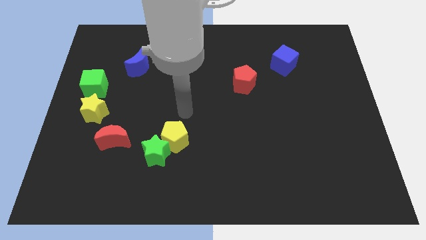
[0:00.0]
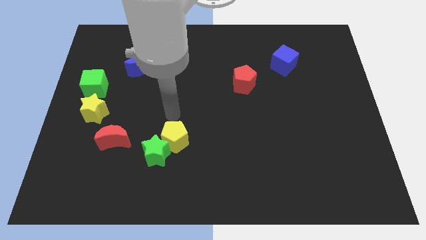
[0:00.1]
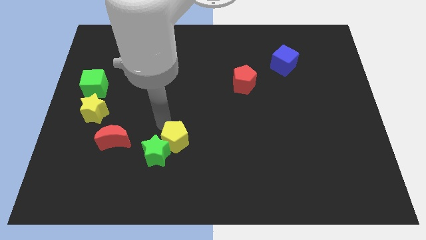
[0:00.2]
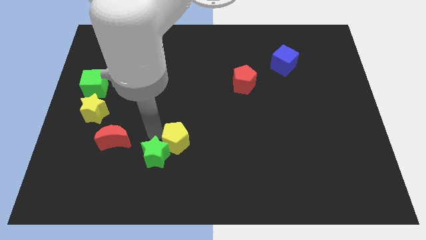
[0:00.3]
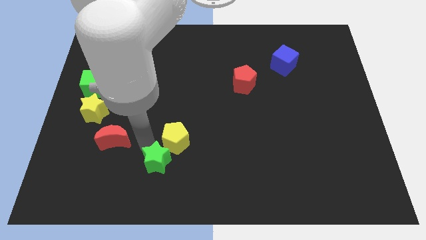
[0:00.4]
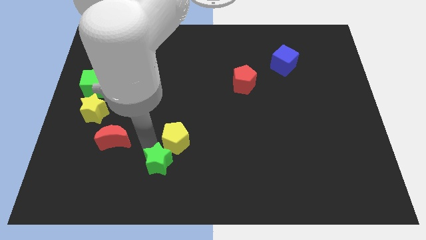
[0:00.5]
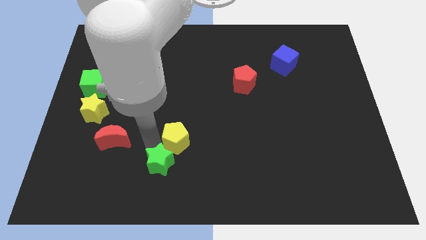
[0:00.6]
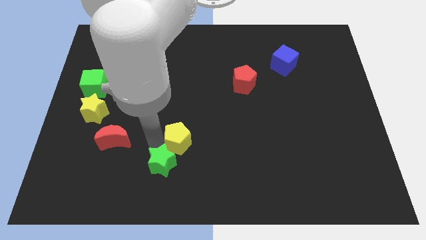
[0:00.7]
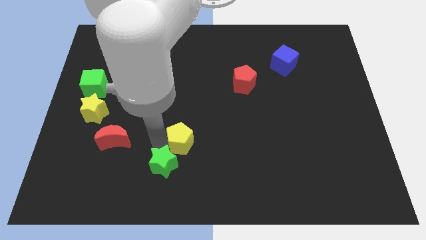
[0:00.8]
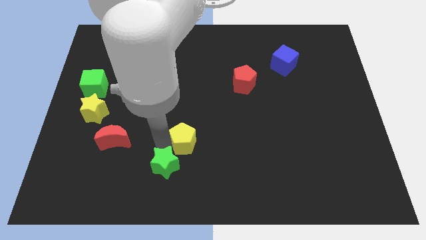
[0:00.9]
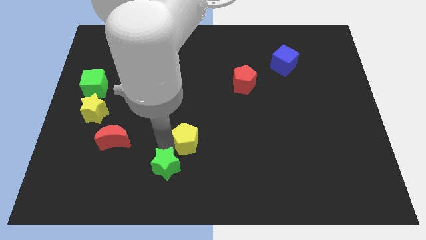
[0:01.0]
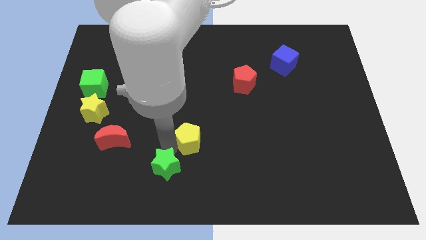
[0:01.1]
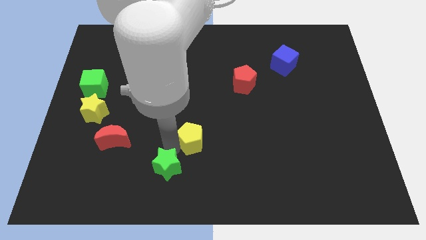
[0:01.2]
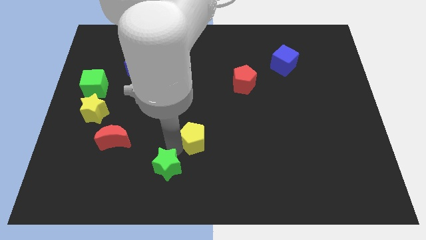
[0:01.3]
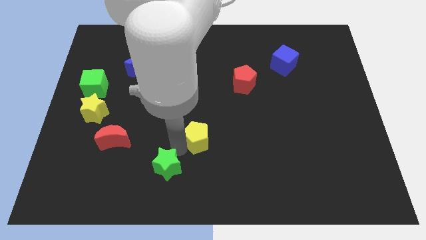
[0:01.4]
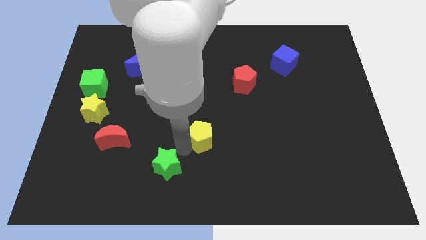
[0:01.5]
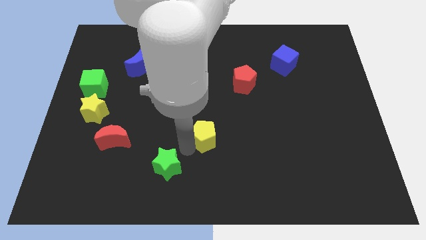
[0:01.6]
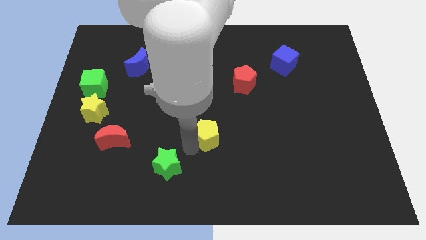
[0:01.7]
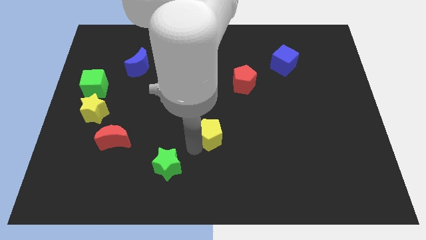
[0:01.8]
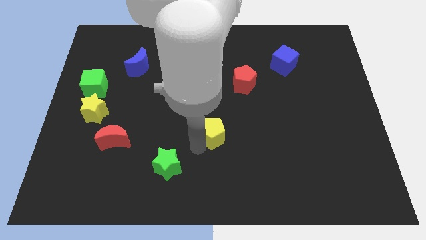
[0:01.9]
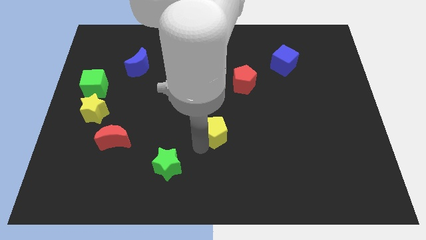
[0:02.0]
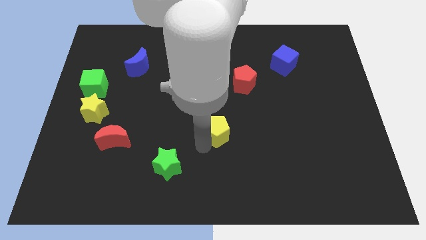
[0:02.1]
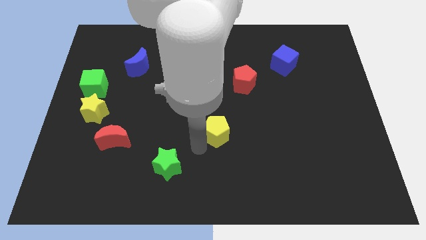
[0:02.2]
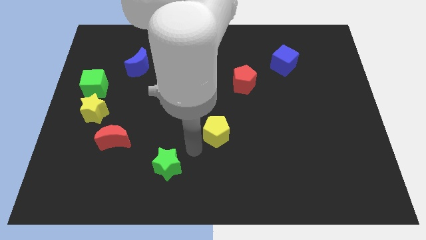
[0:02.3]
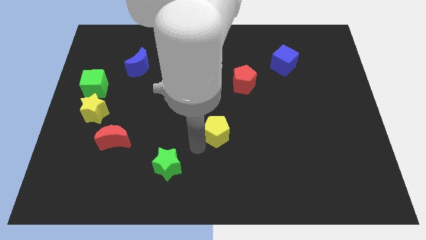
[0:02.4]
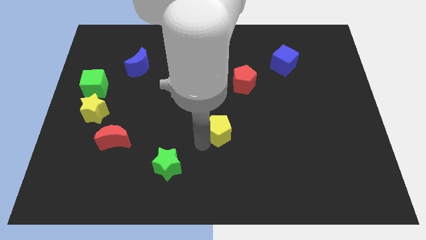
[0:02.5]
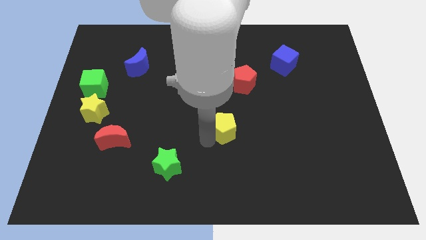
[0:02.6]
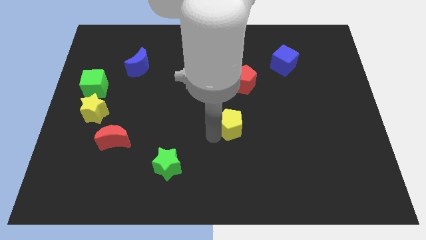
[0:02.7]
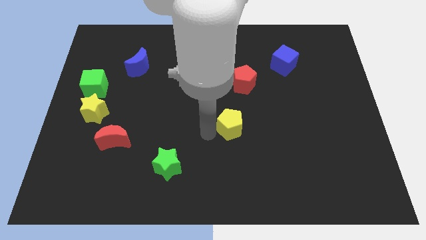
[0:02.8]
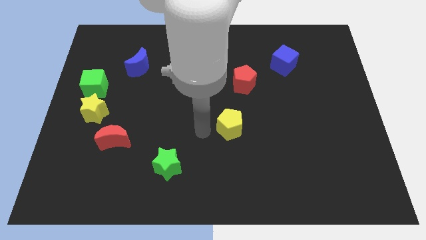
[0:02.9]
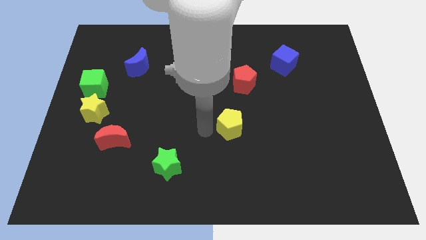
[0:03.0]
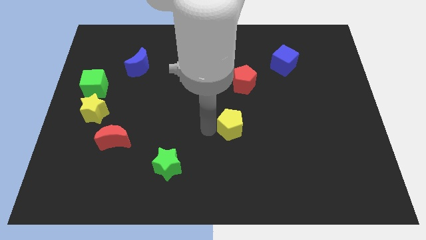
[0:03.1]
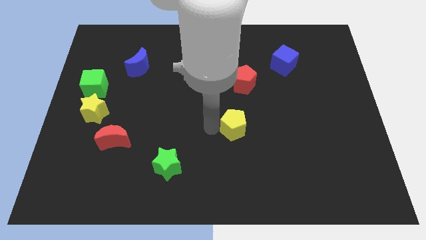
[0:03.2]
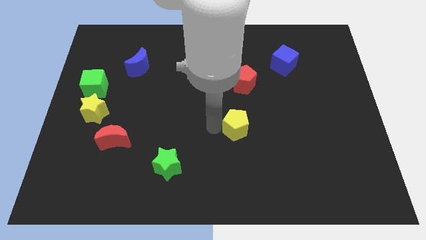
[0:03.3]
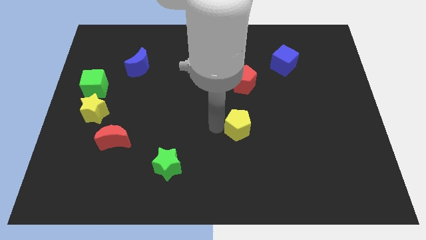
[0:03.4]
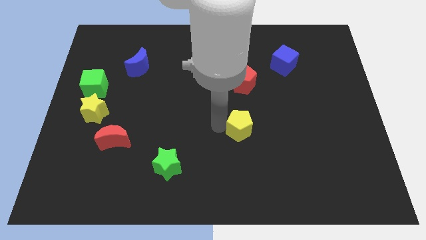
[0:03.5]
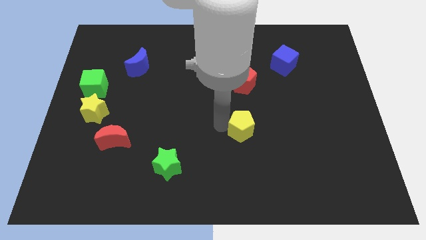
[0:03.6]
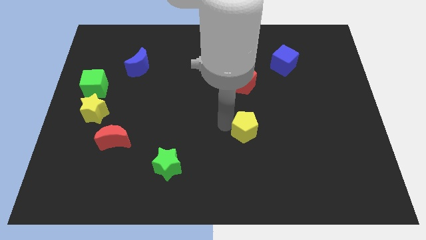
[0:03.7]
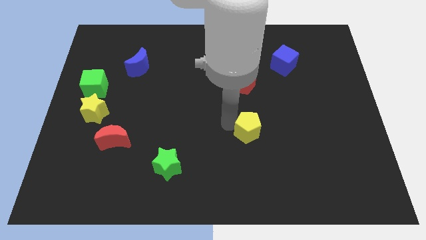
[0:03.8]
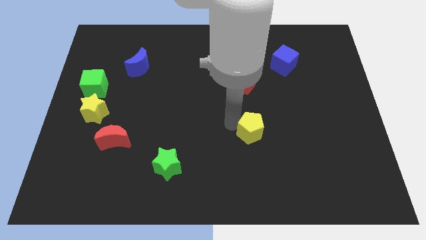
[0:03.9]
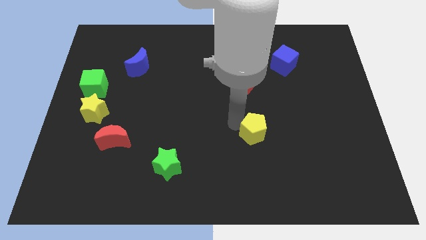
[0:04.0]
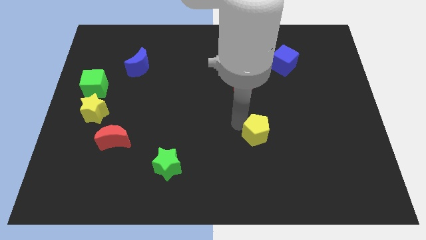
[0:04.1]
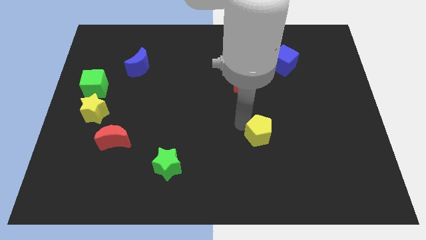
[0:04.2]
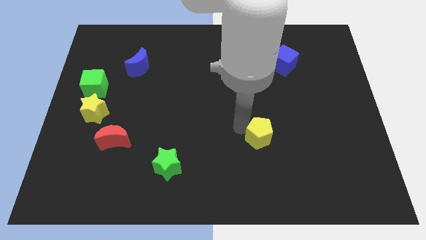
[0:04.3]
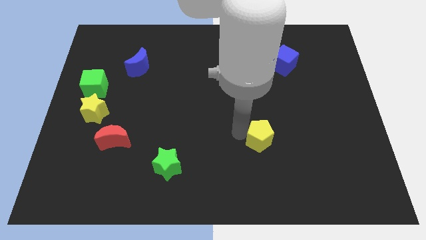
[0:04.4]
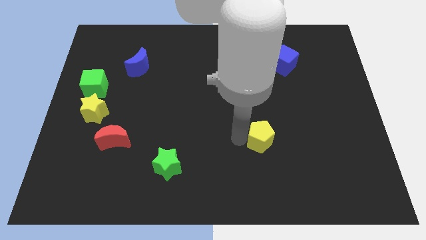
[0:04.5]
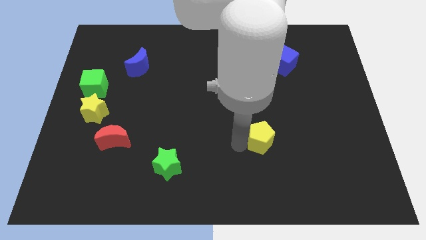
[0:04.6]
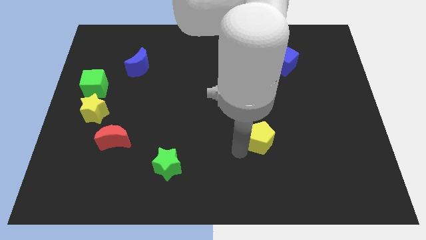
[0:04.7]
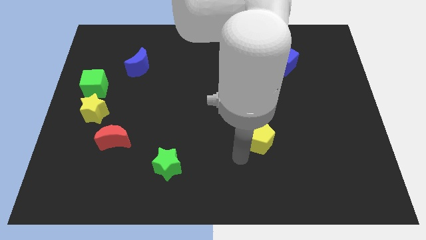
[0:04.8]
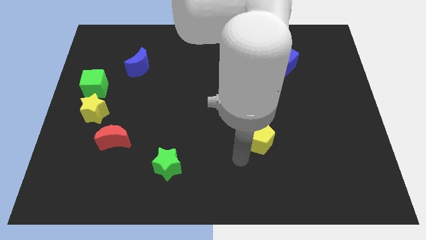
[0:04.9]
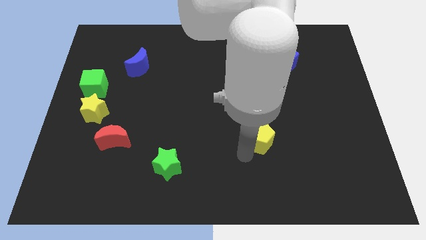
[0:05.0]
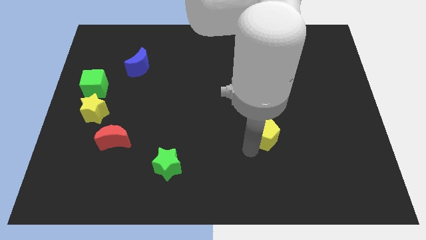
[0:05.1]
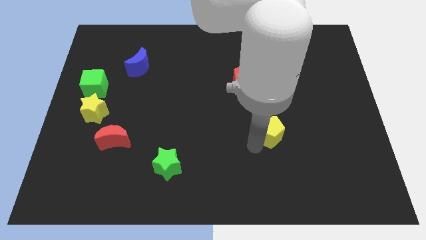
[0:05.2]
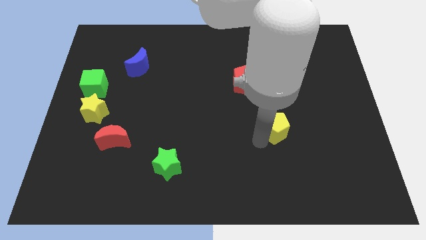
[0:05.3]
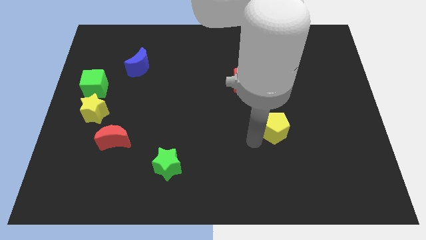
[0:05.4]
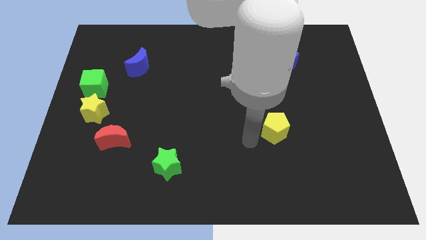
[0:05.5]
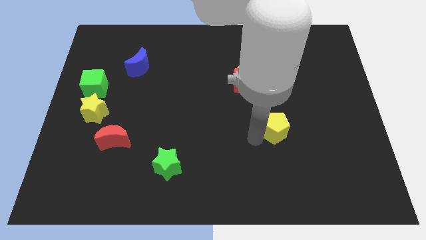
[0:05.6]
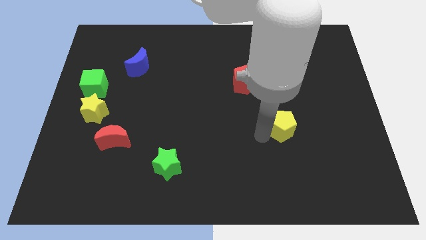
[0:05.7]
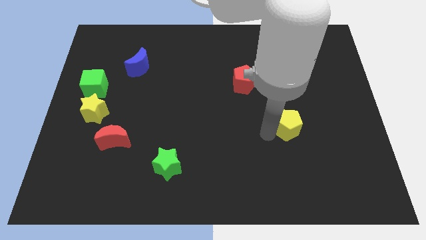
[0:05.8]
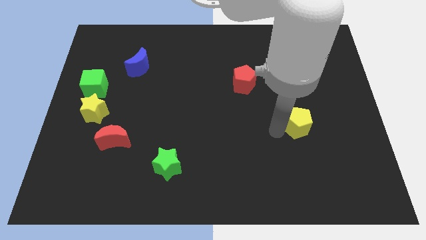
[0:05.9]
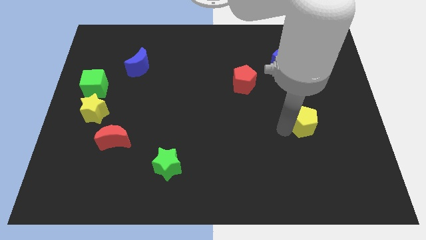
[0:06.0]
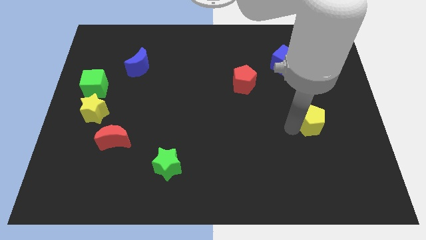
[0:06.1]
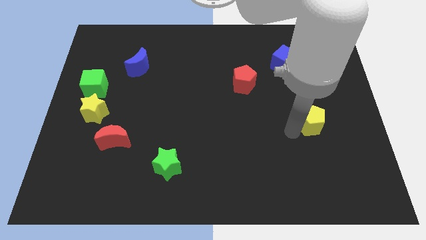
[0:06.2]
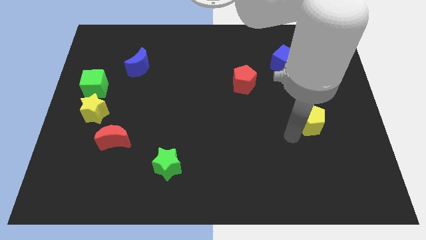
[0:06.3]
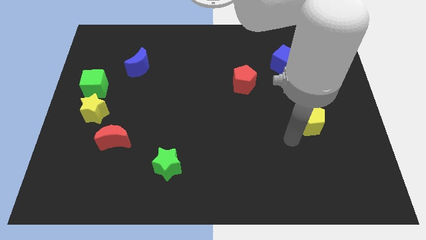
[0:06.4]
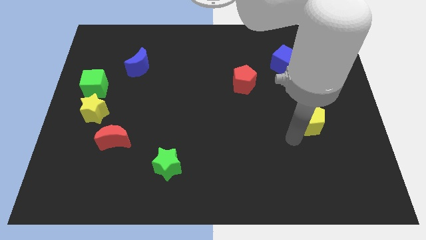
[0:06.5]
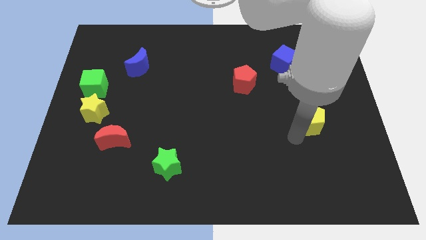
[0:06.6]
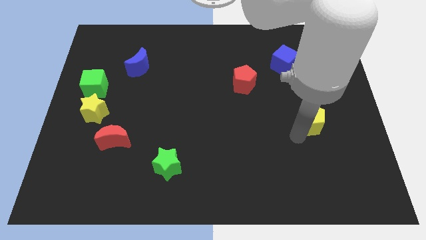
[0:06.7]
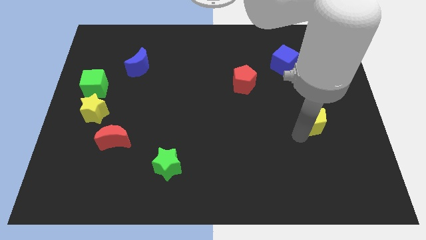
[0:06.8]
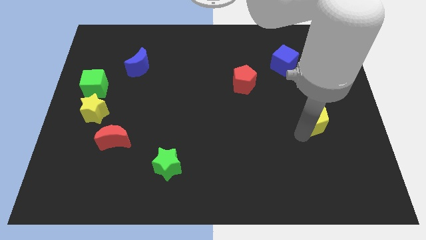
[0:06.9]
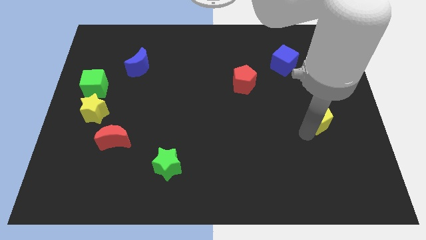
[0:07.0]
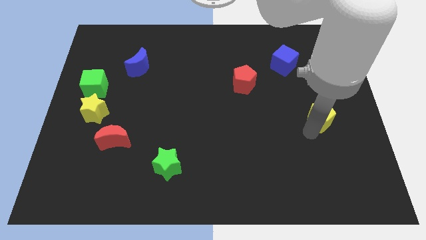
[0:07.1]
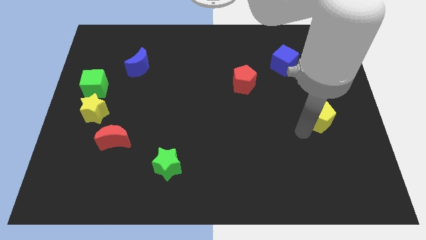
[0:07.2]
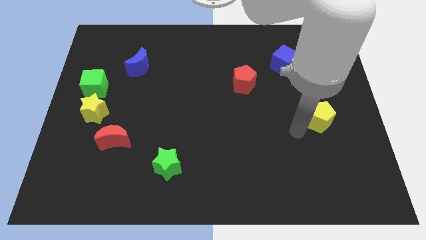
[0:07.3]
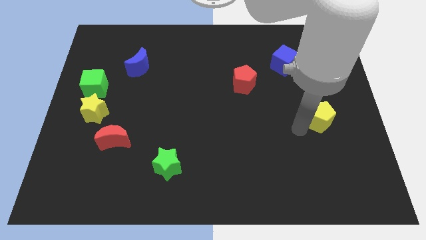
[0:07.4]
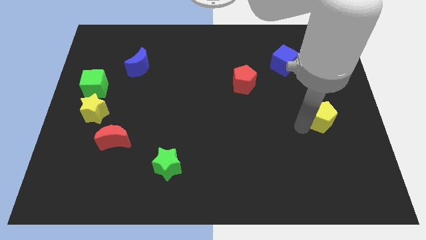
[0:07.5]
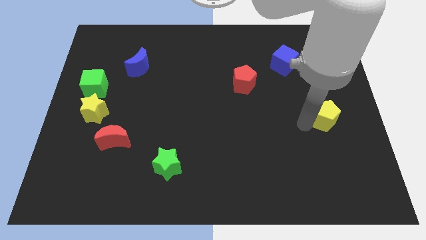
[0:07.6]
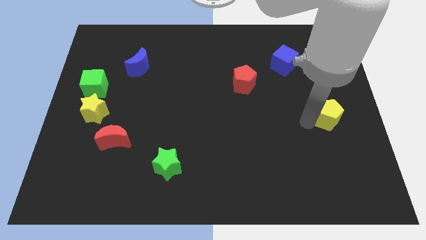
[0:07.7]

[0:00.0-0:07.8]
push the yellow pentagon to the right side
